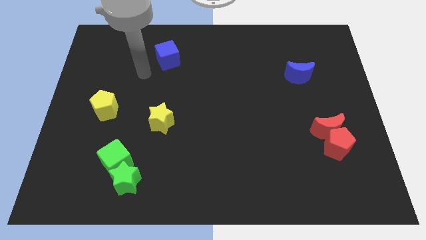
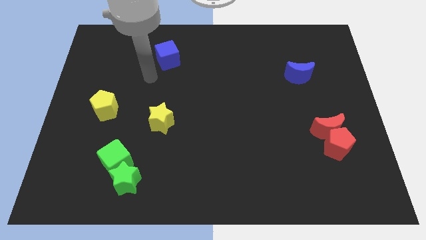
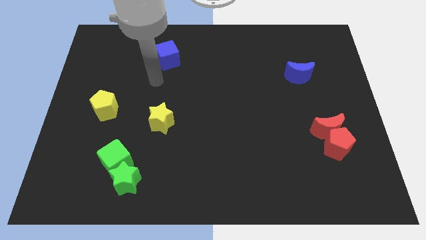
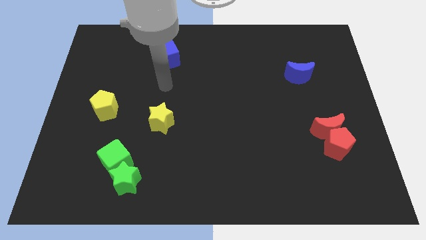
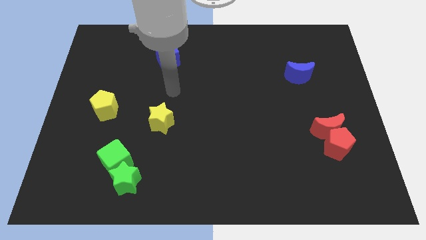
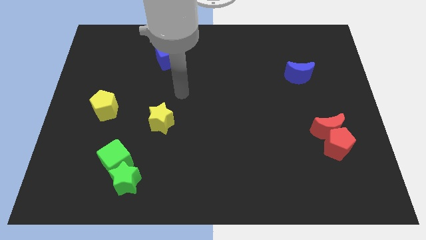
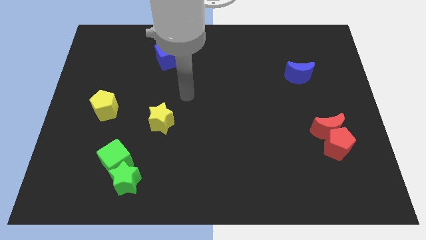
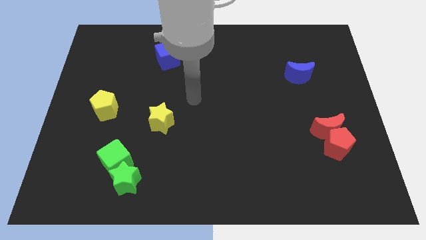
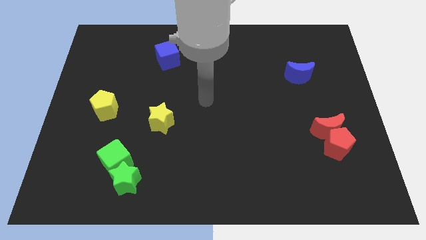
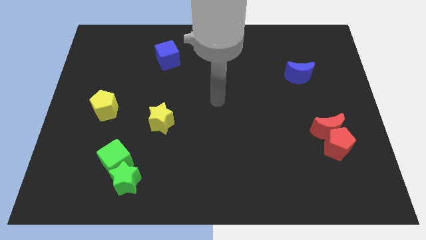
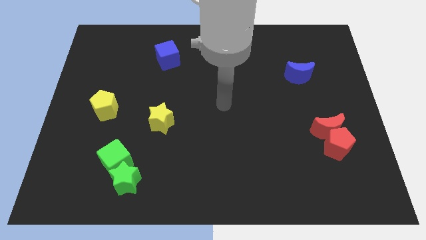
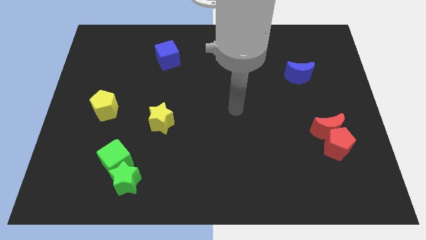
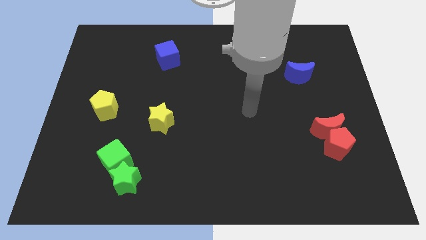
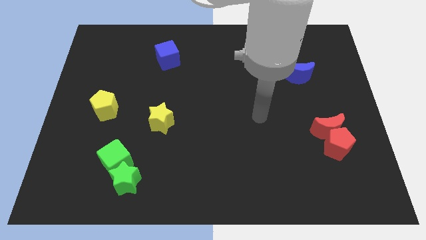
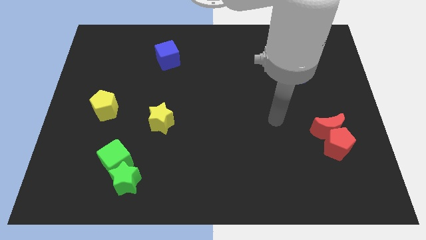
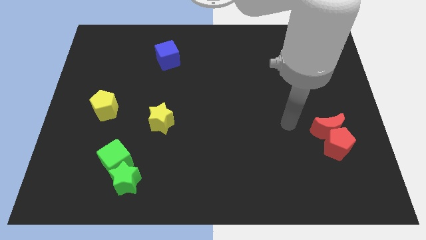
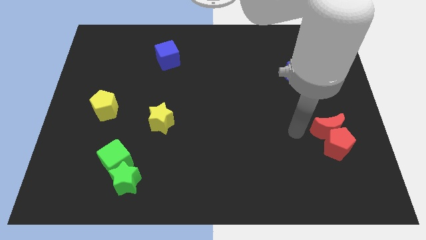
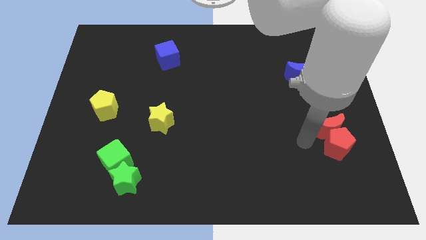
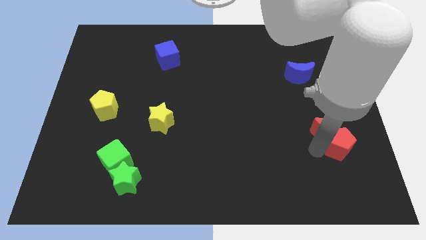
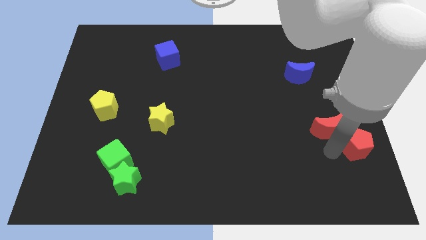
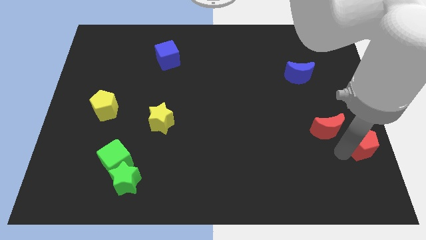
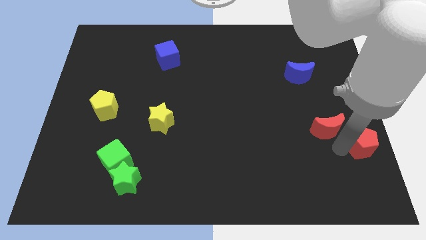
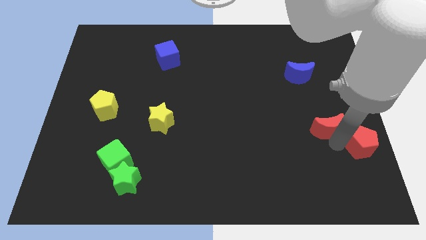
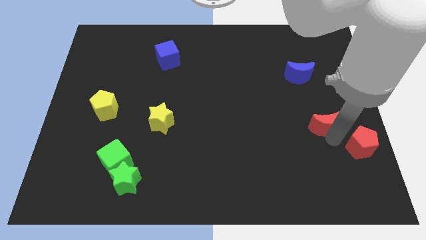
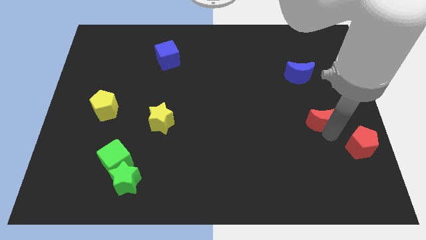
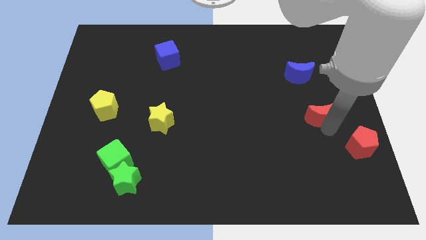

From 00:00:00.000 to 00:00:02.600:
separate the red moon from the red pentagon

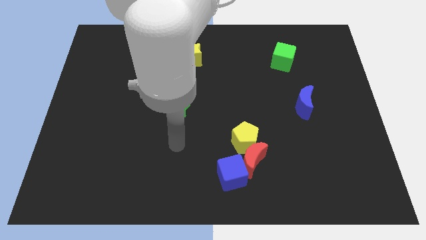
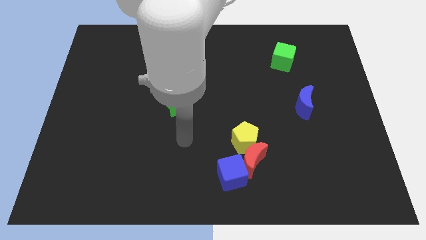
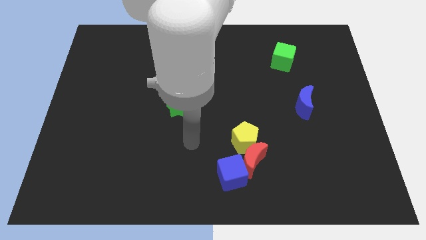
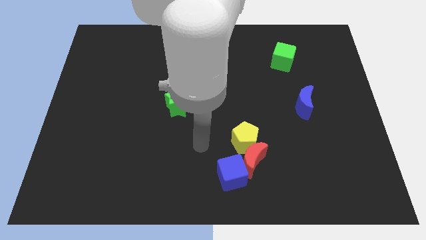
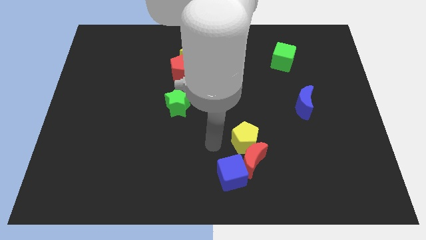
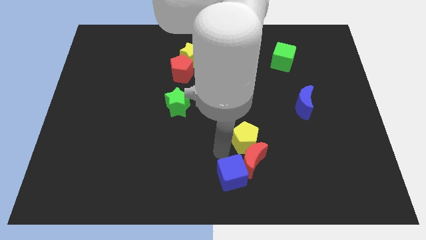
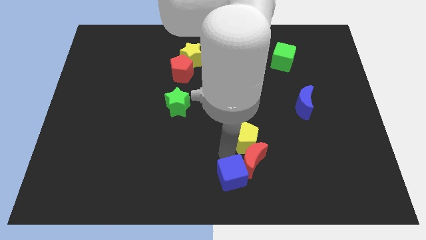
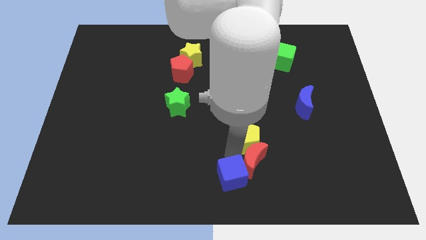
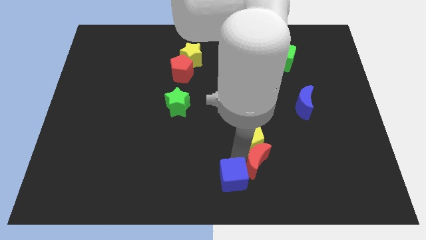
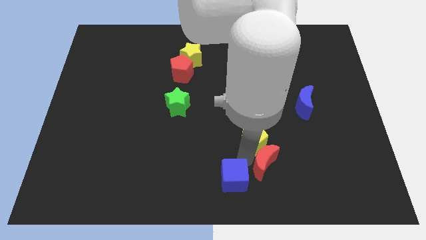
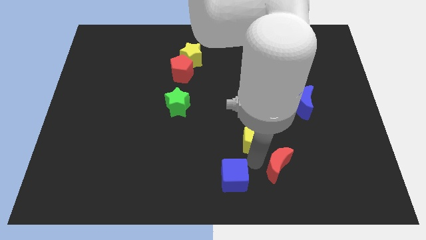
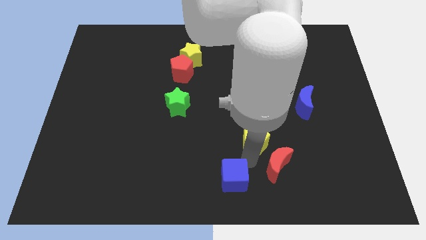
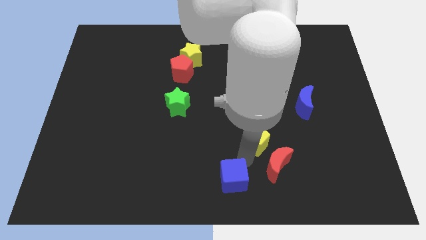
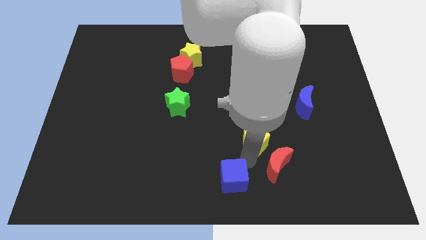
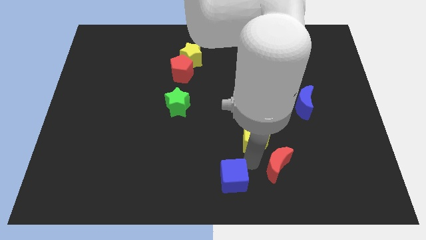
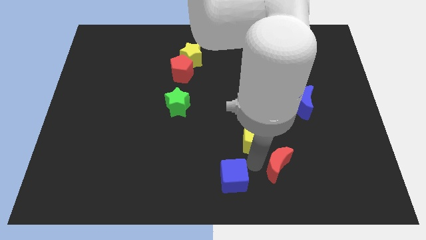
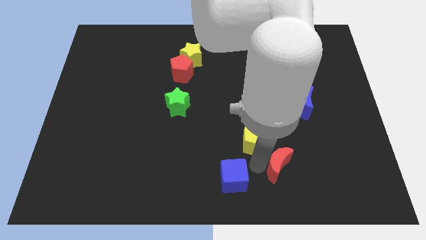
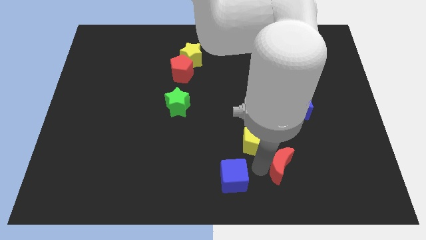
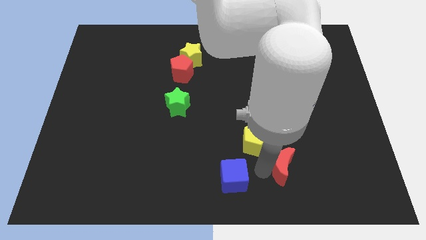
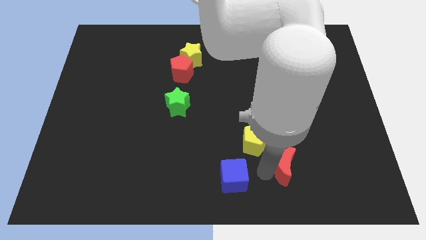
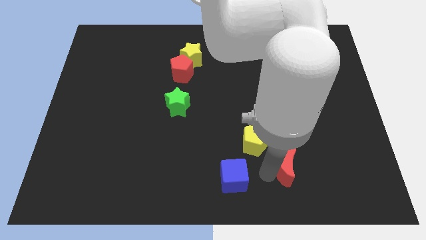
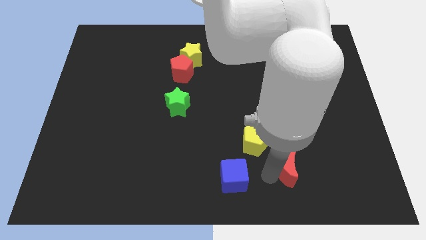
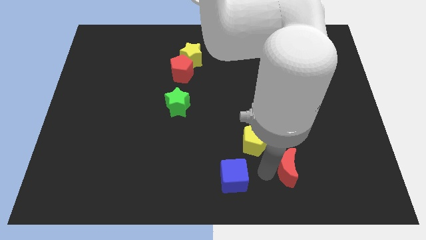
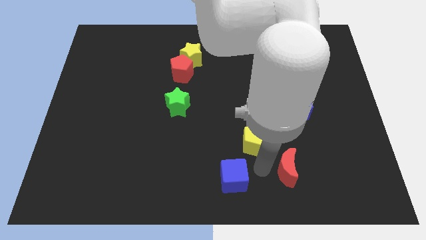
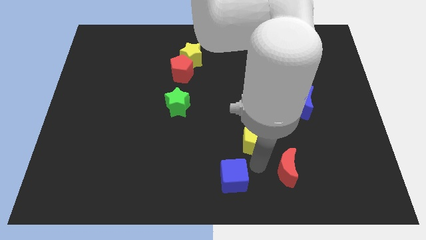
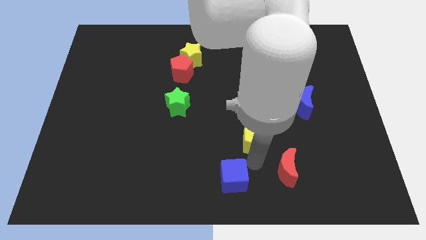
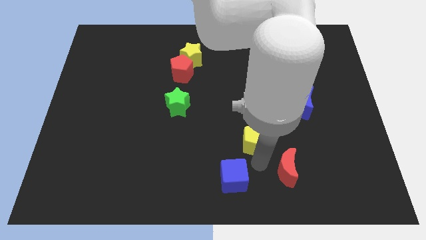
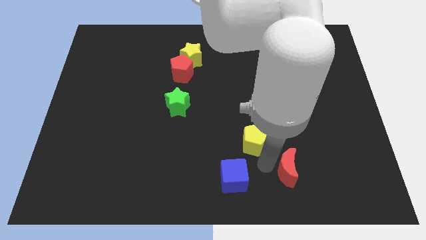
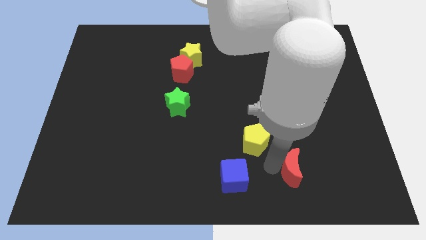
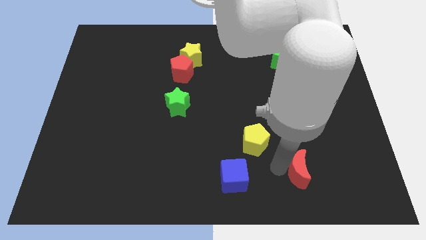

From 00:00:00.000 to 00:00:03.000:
move the red moon away from the yellow pentagon and blue cube

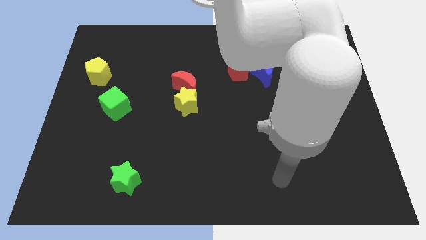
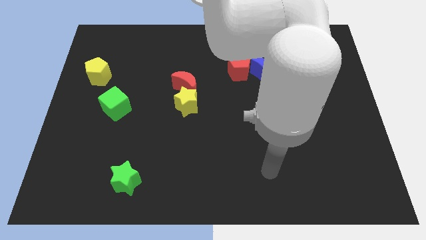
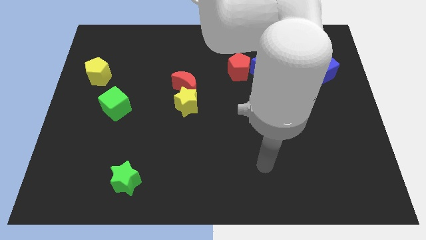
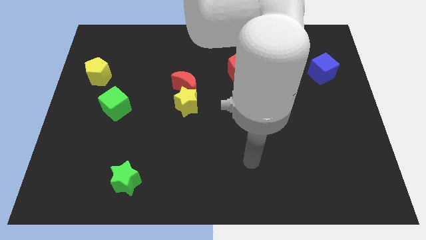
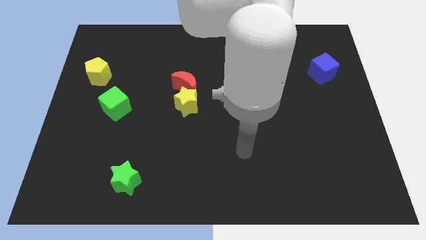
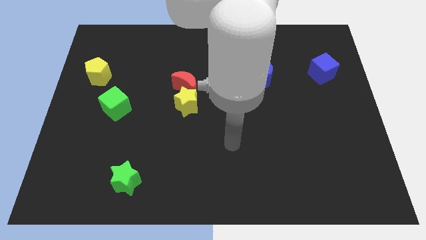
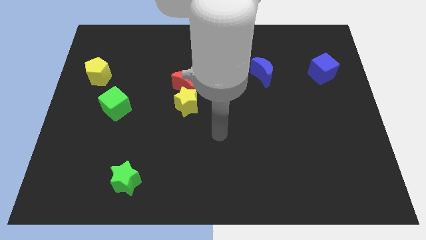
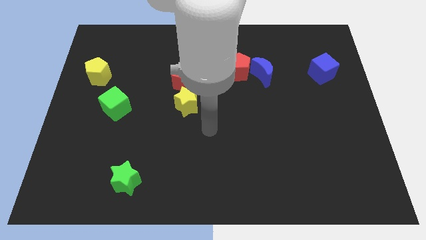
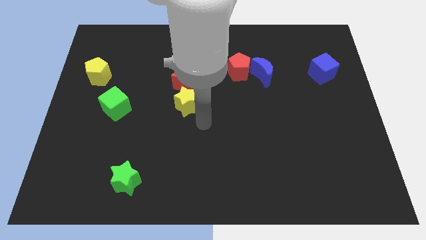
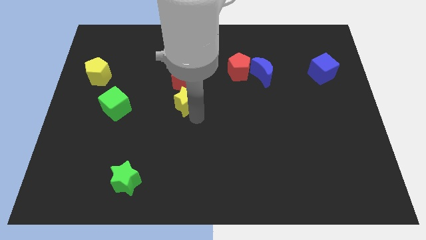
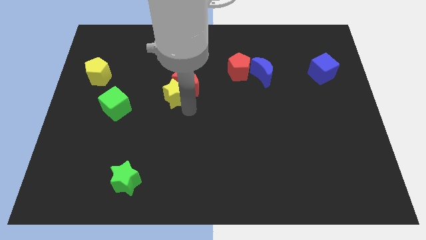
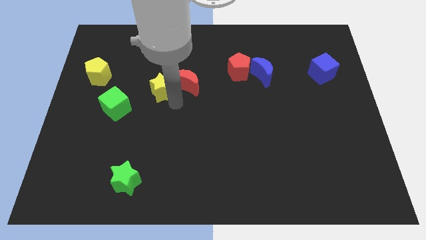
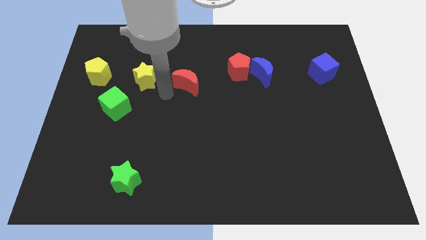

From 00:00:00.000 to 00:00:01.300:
pull the red moon apart from the yellow star

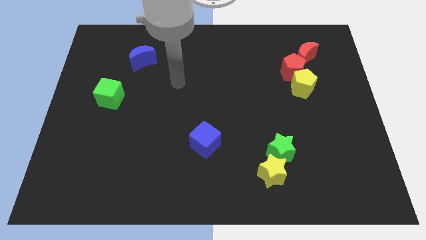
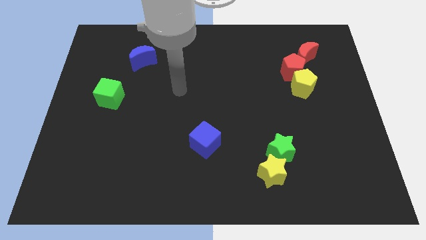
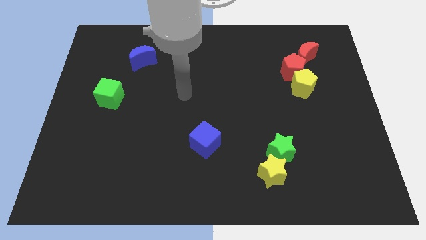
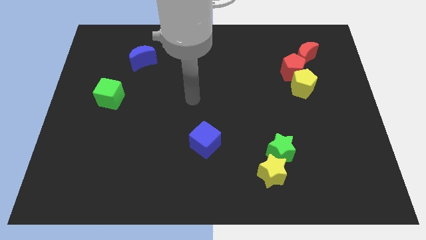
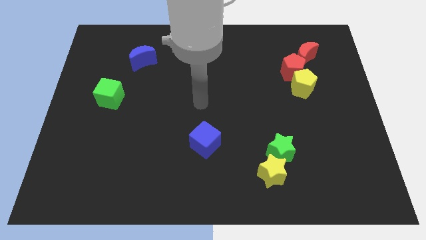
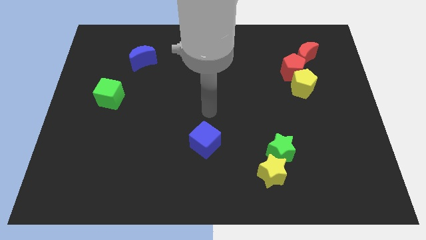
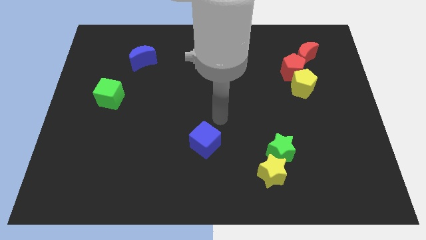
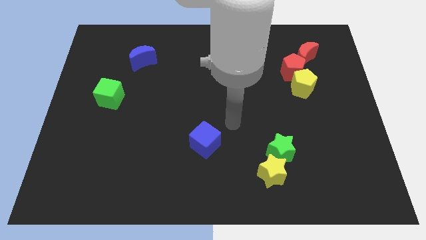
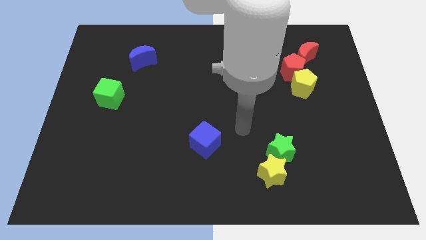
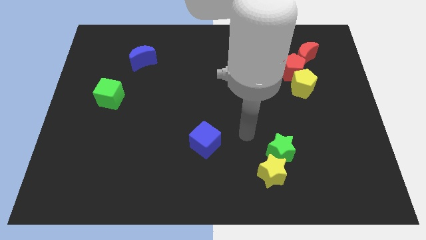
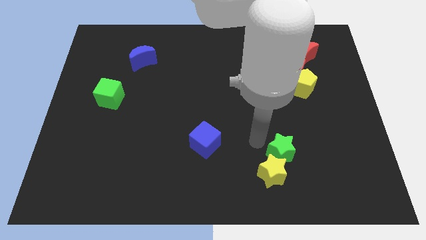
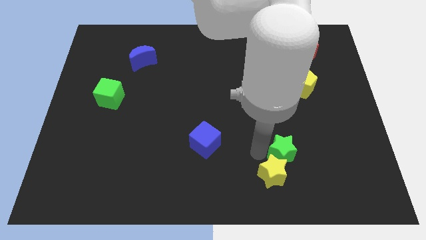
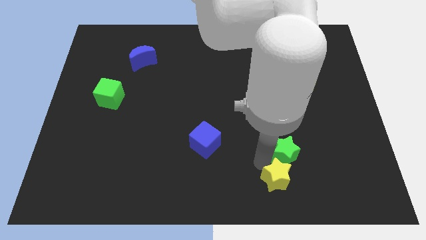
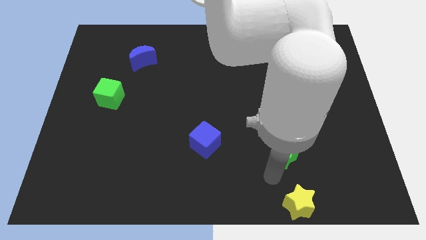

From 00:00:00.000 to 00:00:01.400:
pull the green star apart from the yellow star

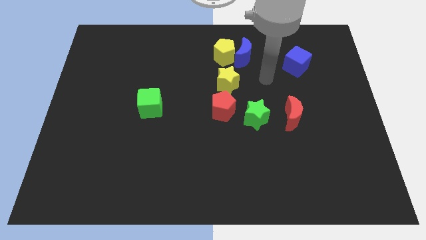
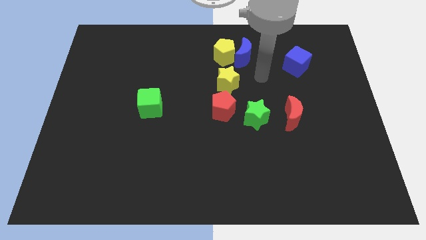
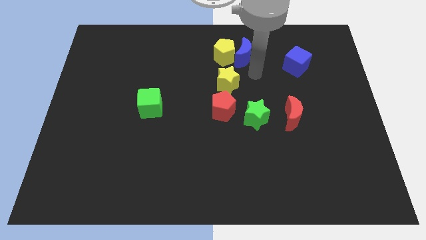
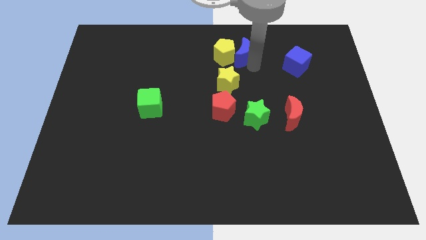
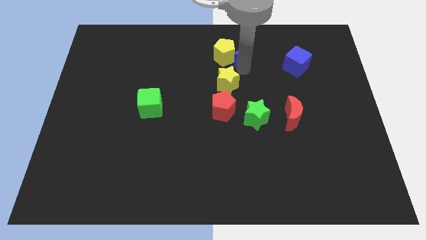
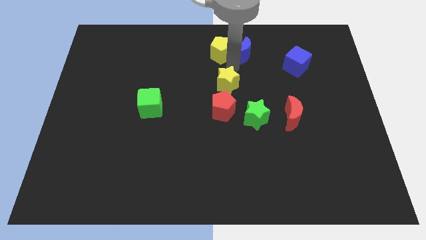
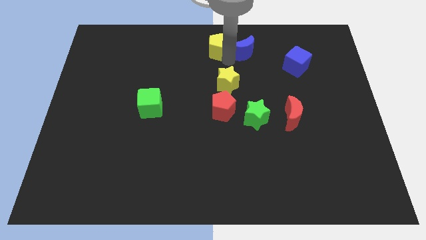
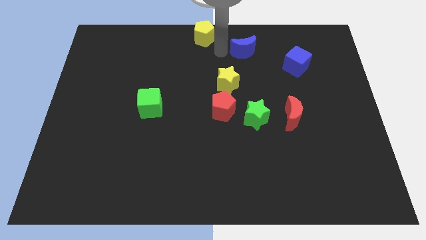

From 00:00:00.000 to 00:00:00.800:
pull the blue moon apart from the yellow pentagon

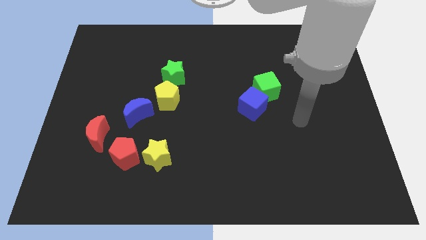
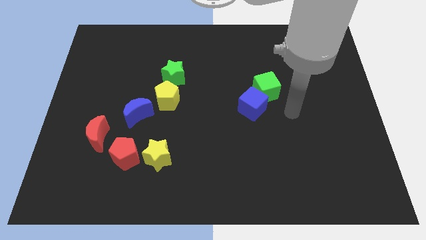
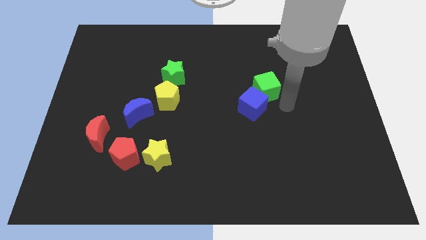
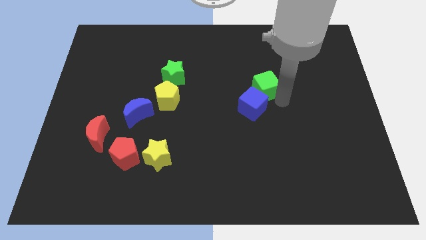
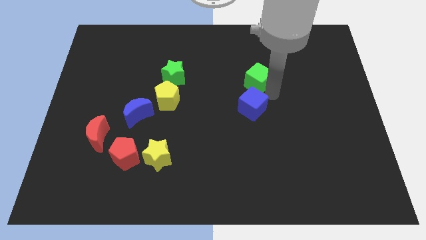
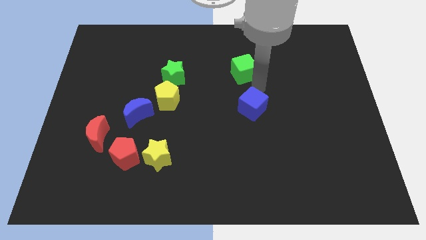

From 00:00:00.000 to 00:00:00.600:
separate the blue cube from the green cube
